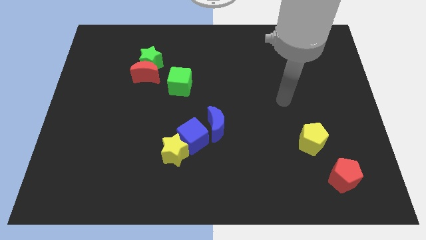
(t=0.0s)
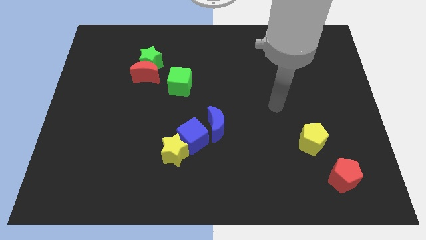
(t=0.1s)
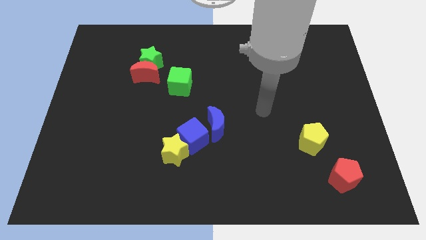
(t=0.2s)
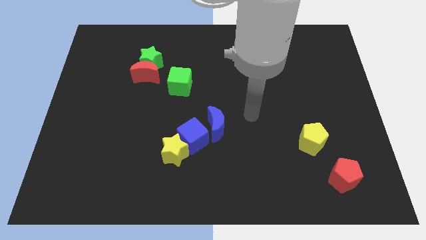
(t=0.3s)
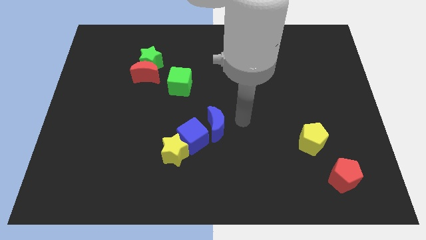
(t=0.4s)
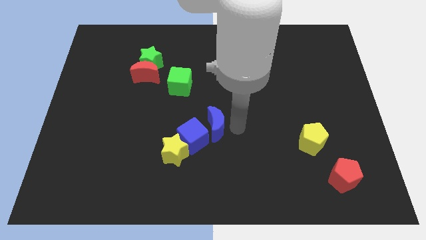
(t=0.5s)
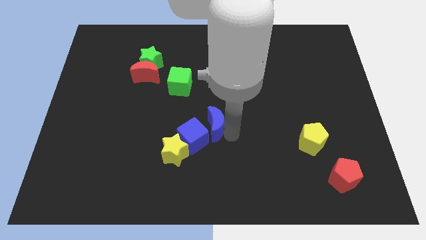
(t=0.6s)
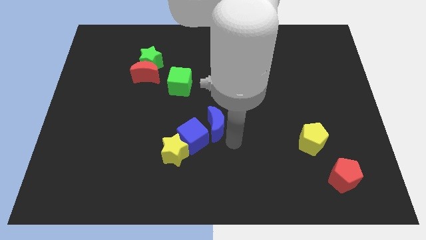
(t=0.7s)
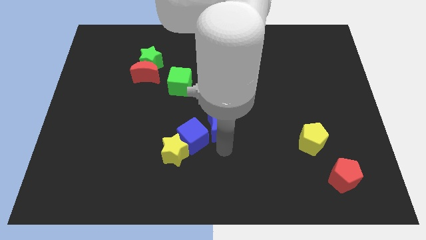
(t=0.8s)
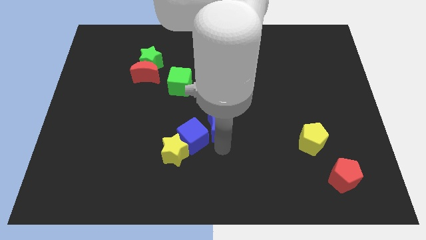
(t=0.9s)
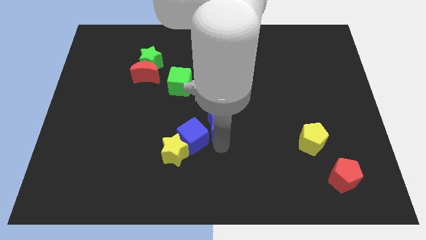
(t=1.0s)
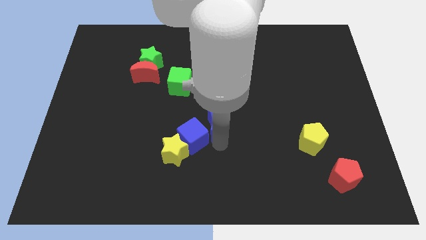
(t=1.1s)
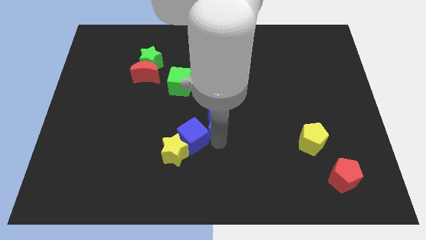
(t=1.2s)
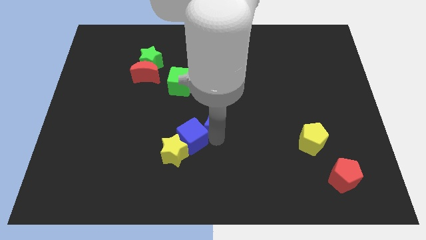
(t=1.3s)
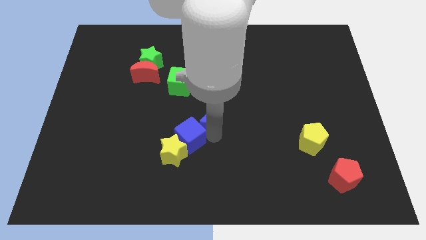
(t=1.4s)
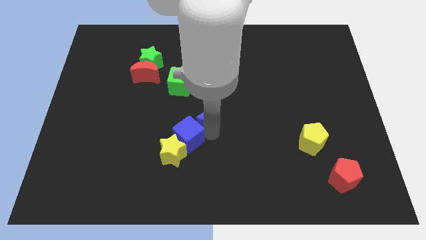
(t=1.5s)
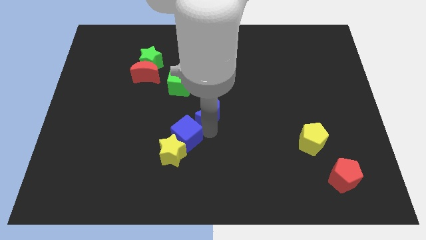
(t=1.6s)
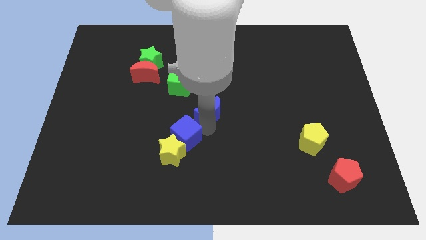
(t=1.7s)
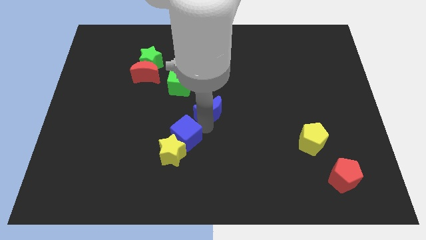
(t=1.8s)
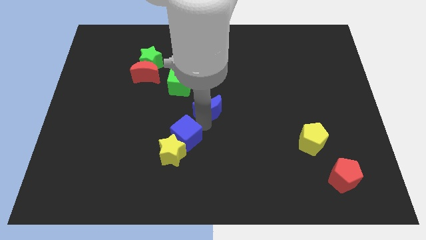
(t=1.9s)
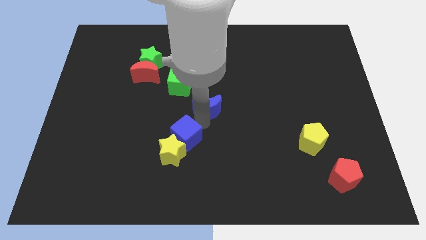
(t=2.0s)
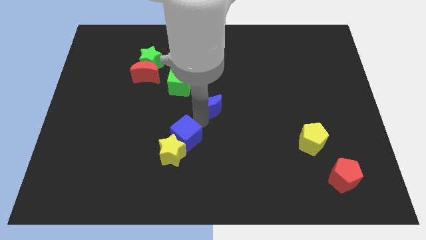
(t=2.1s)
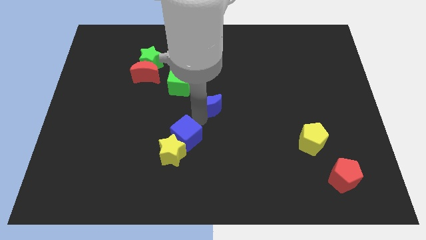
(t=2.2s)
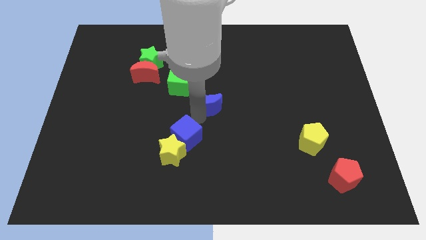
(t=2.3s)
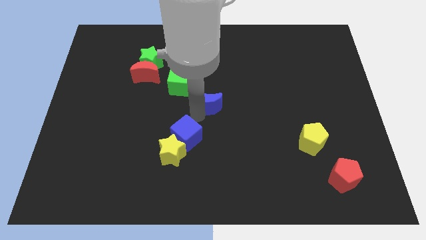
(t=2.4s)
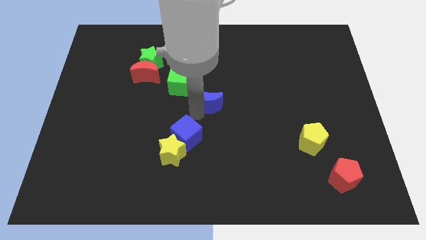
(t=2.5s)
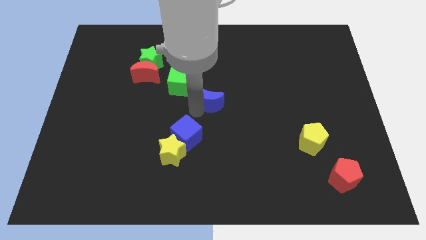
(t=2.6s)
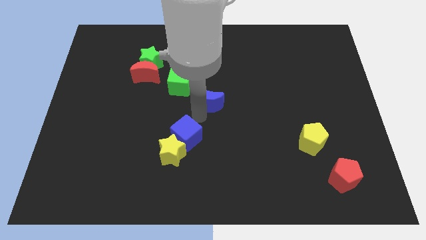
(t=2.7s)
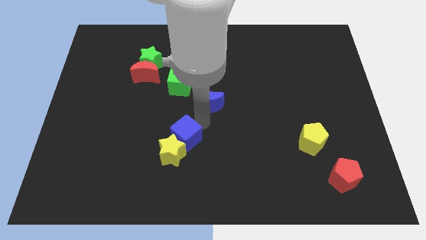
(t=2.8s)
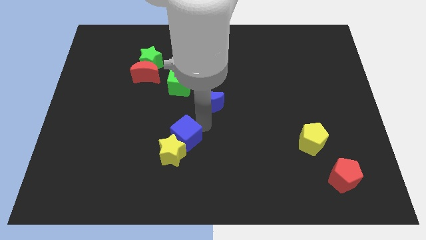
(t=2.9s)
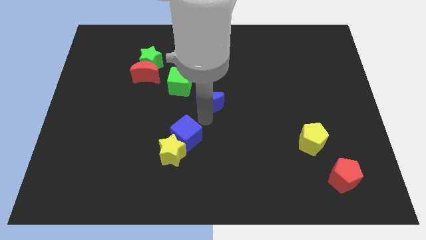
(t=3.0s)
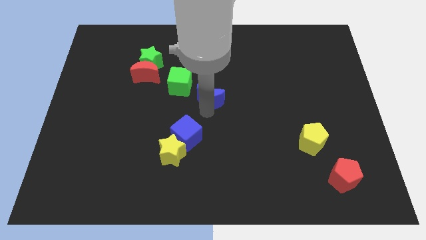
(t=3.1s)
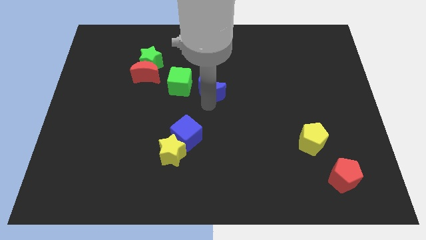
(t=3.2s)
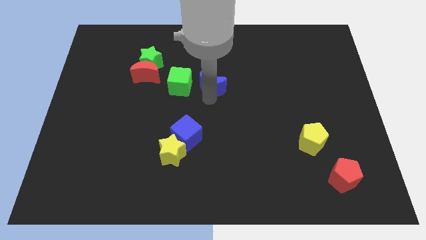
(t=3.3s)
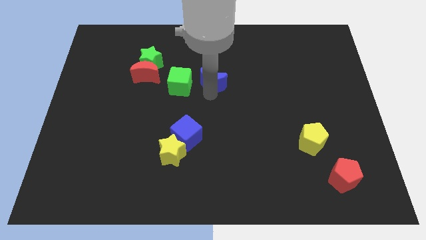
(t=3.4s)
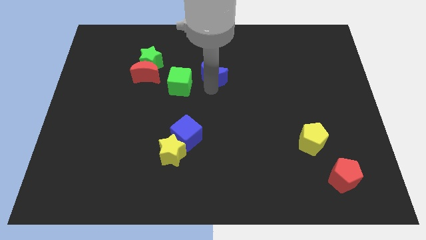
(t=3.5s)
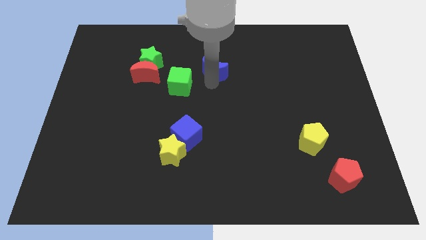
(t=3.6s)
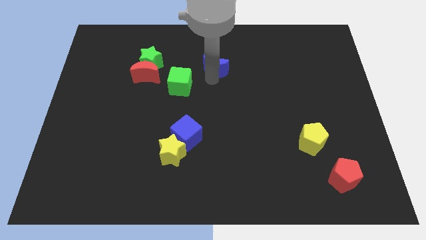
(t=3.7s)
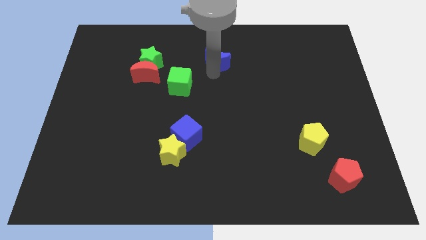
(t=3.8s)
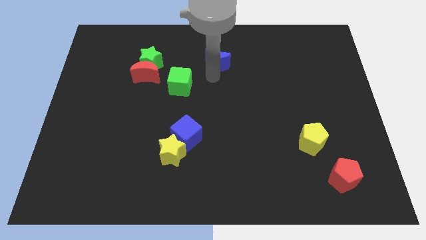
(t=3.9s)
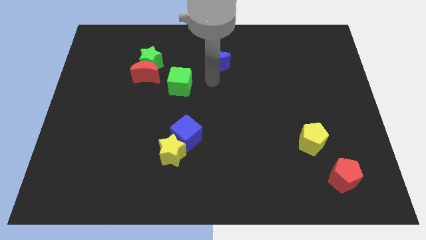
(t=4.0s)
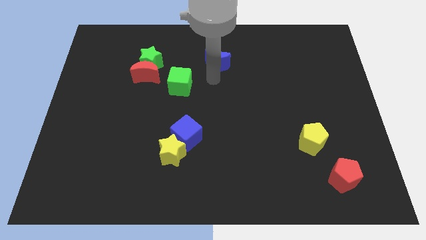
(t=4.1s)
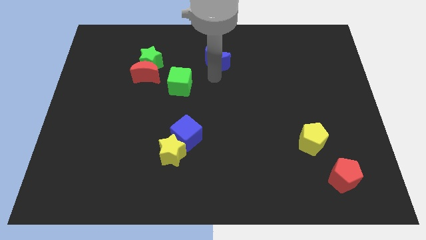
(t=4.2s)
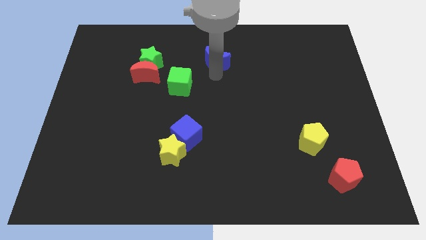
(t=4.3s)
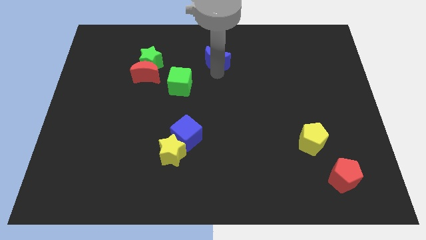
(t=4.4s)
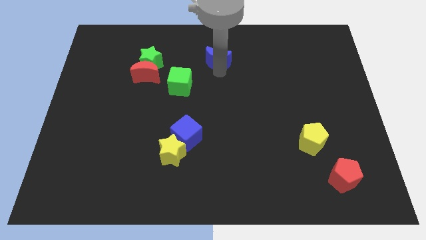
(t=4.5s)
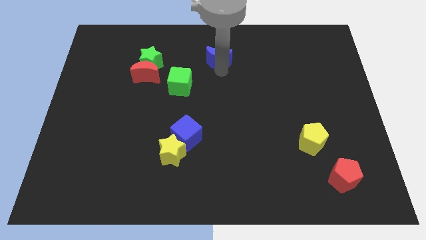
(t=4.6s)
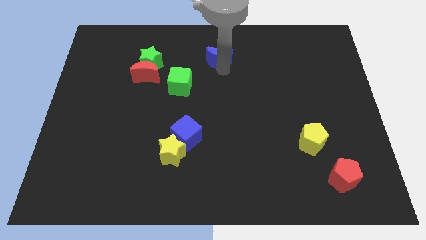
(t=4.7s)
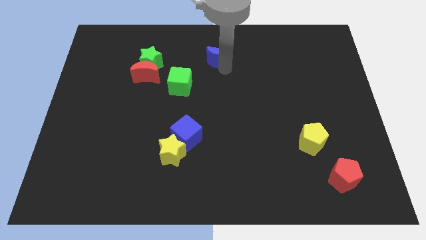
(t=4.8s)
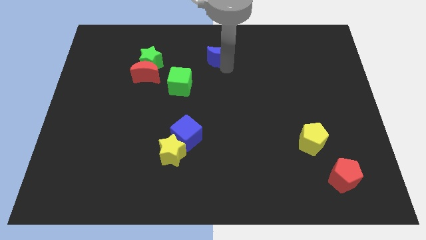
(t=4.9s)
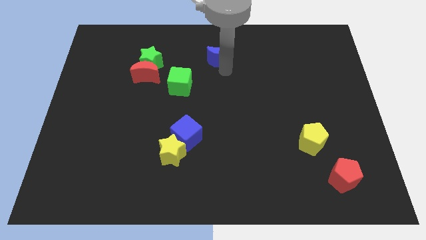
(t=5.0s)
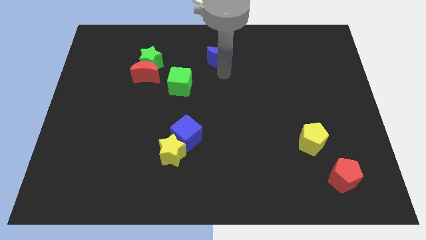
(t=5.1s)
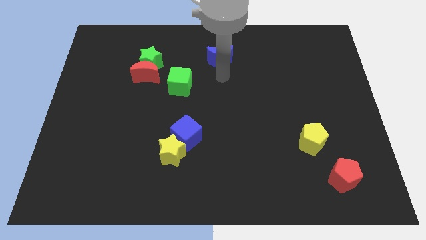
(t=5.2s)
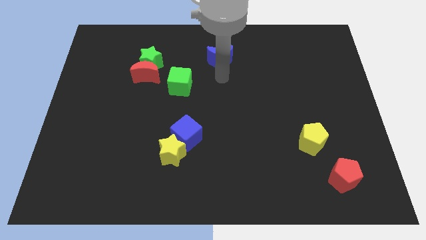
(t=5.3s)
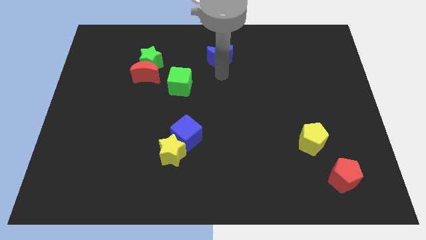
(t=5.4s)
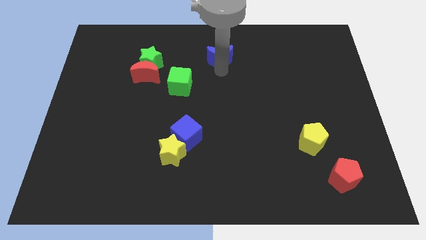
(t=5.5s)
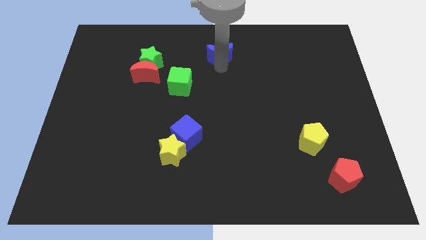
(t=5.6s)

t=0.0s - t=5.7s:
push the blue moon to the top side

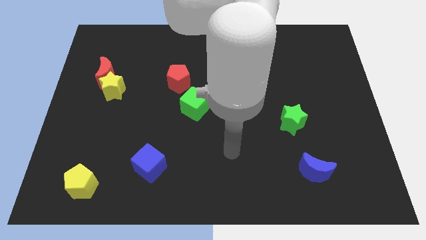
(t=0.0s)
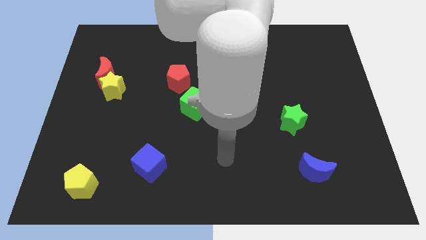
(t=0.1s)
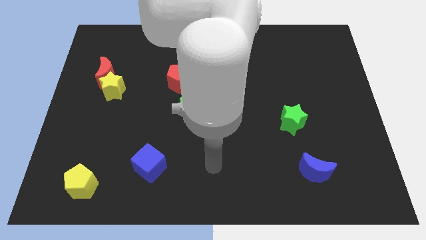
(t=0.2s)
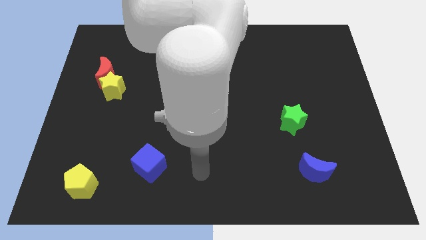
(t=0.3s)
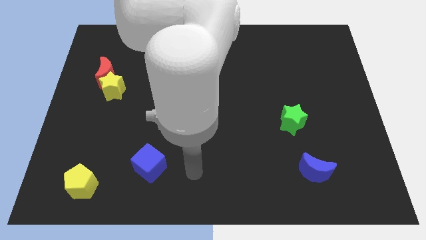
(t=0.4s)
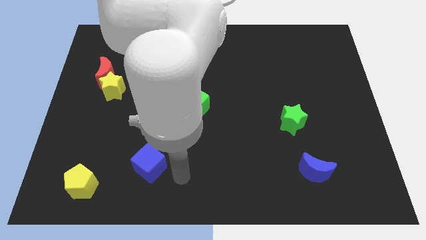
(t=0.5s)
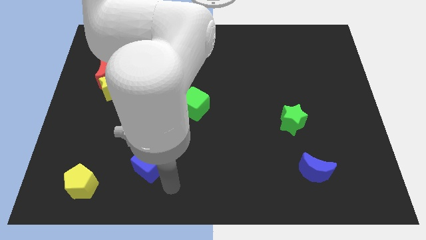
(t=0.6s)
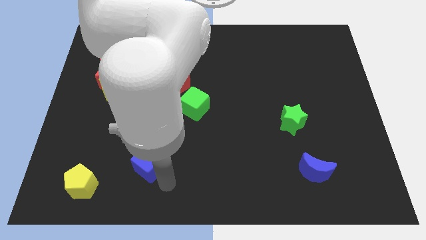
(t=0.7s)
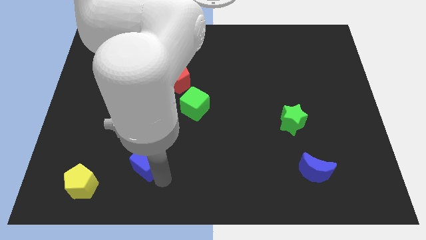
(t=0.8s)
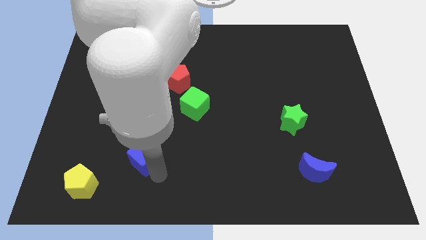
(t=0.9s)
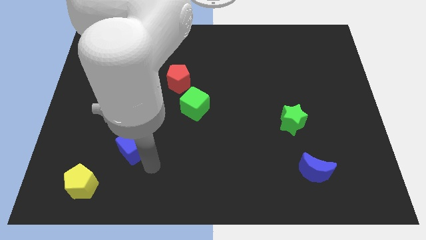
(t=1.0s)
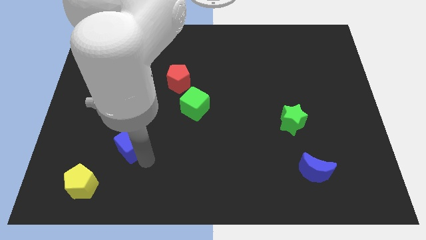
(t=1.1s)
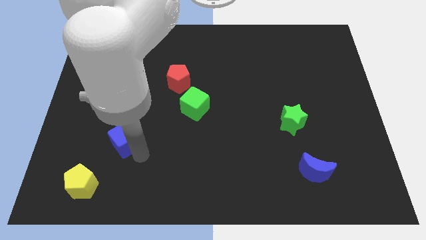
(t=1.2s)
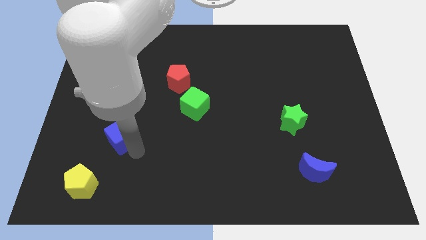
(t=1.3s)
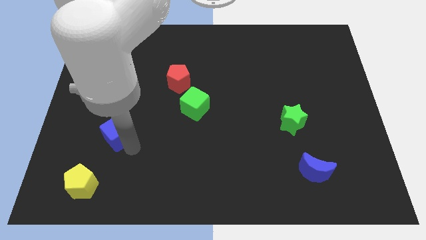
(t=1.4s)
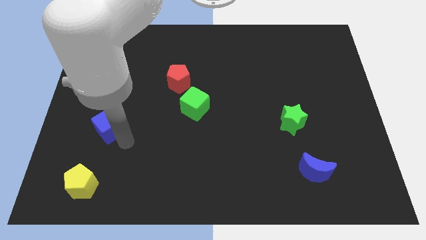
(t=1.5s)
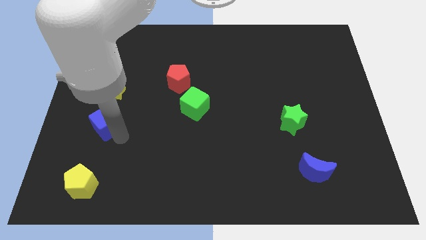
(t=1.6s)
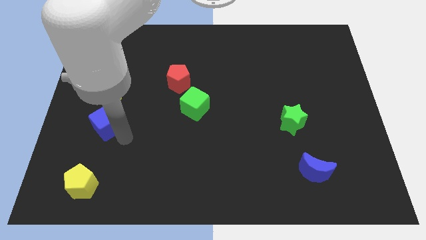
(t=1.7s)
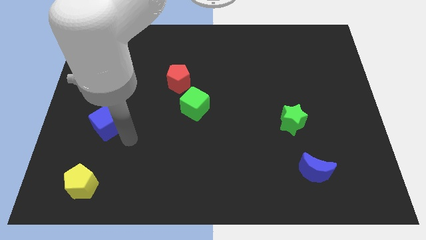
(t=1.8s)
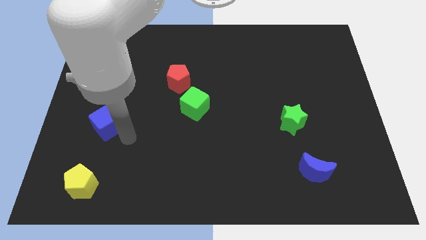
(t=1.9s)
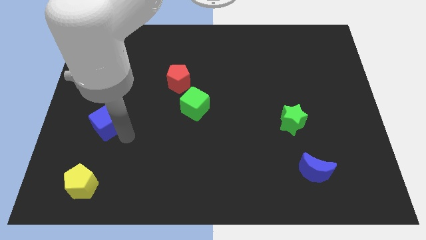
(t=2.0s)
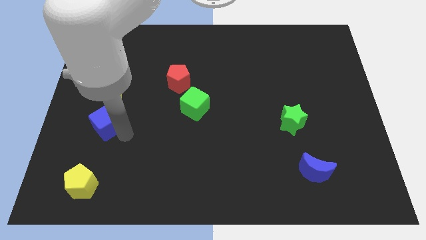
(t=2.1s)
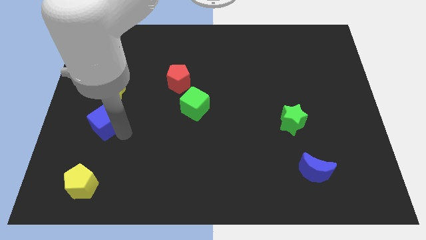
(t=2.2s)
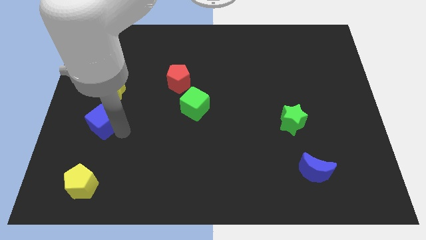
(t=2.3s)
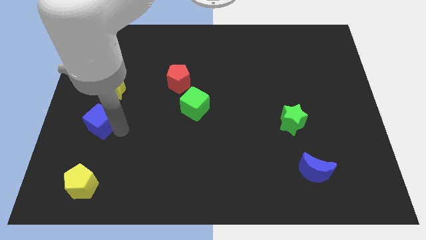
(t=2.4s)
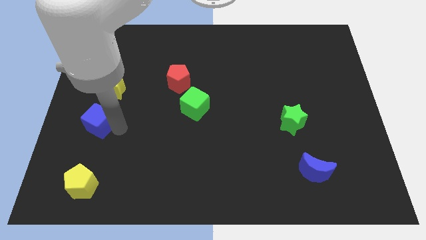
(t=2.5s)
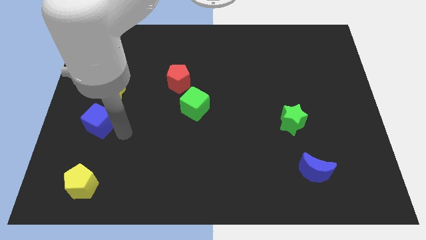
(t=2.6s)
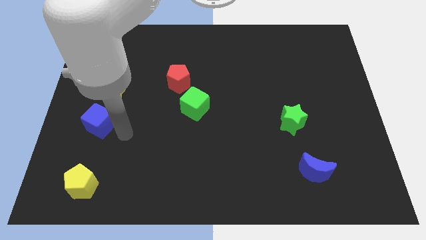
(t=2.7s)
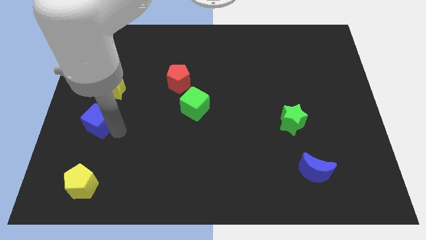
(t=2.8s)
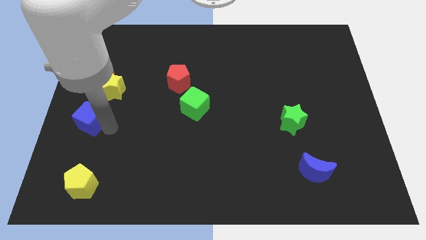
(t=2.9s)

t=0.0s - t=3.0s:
move the blue cube to the center left
